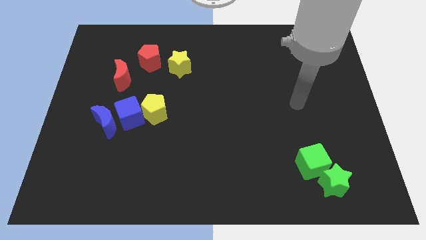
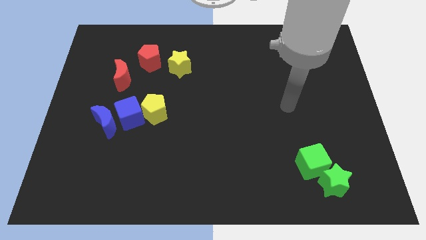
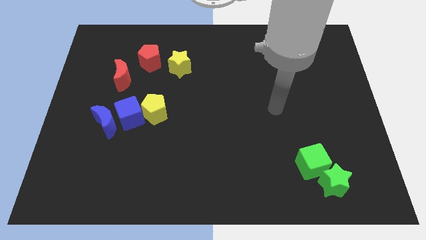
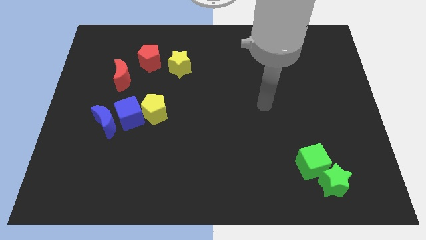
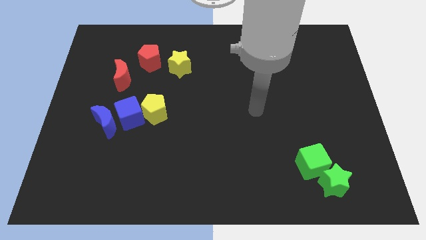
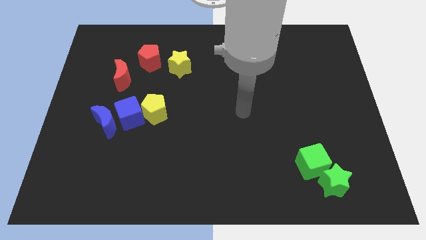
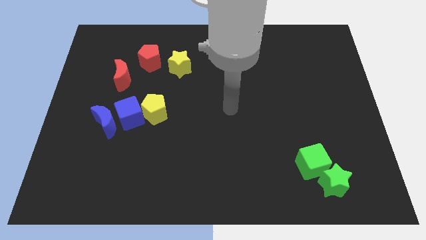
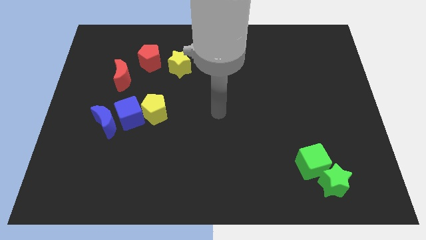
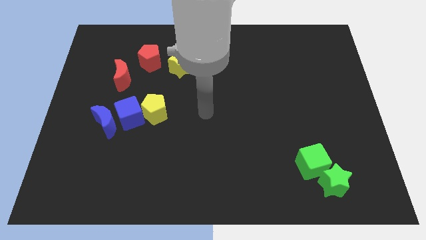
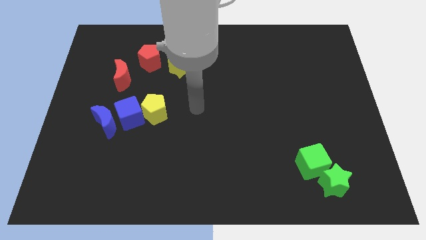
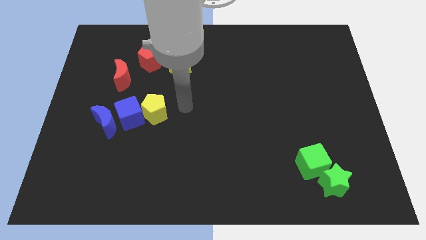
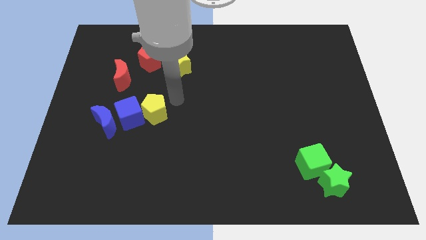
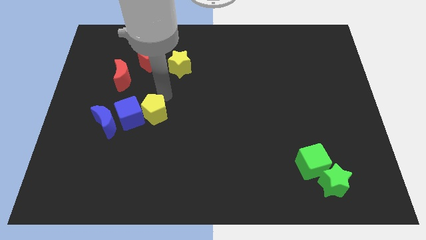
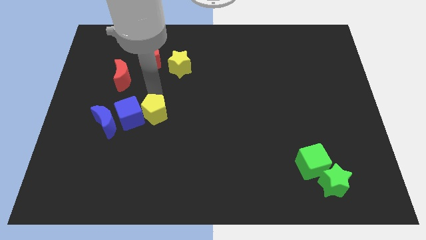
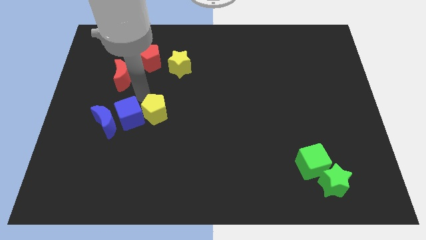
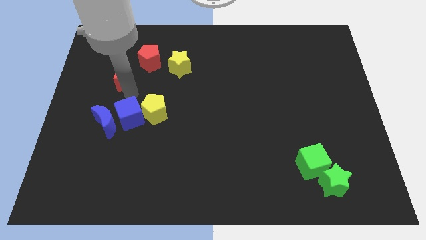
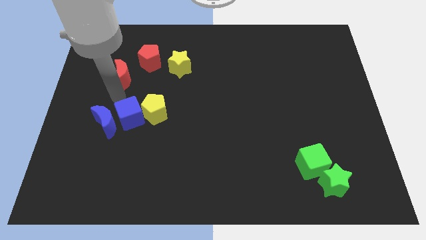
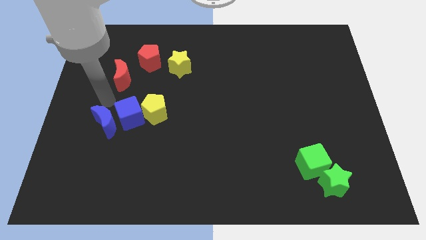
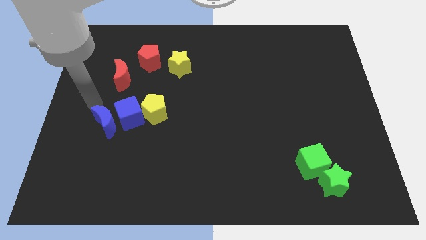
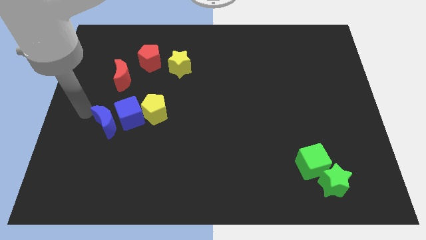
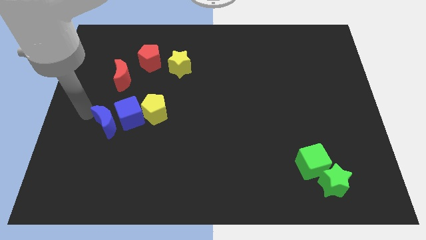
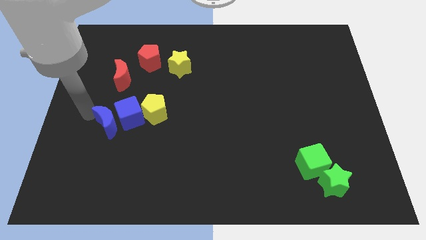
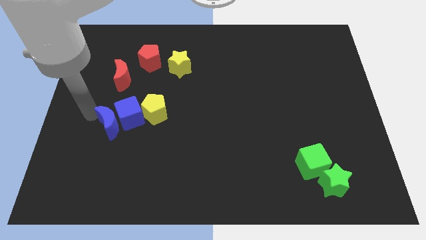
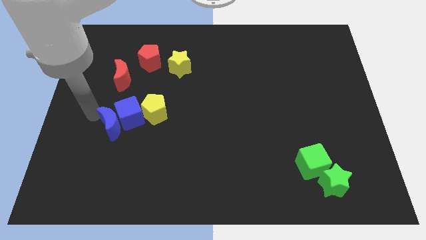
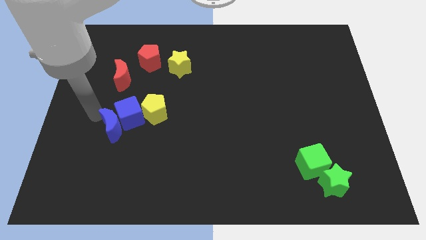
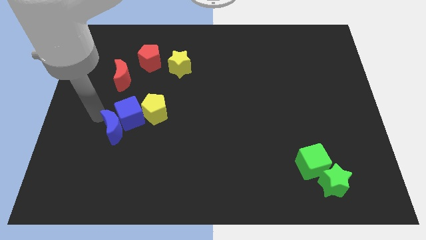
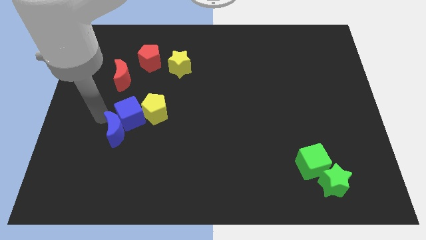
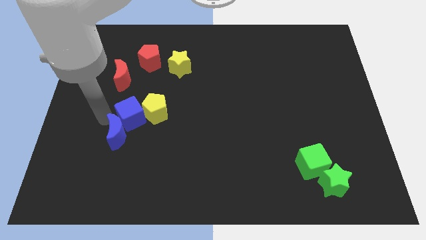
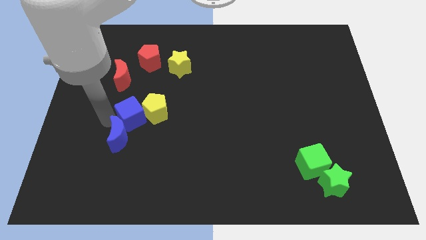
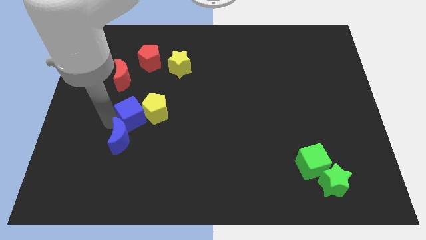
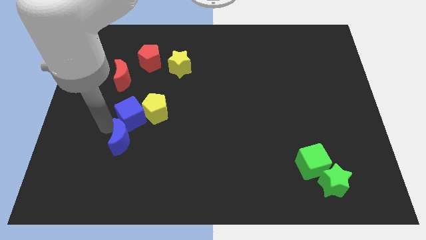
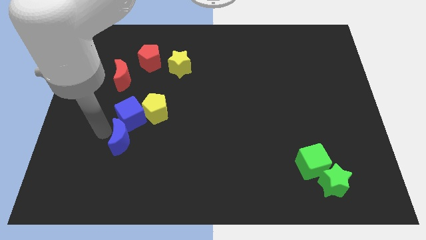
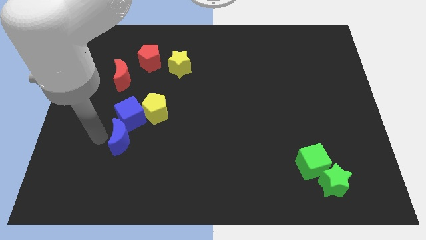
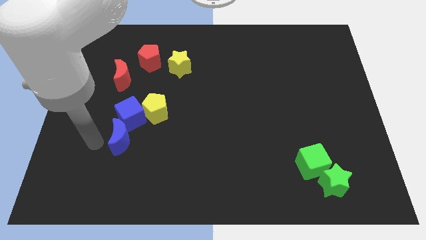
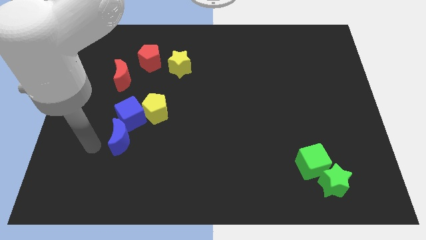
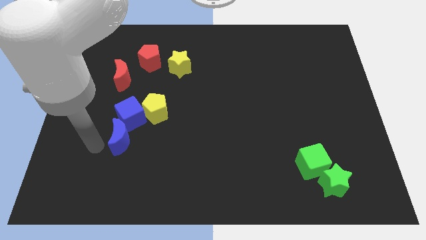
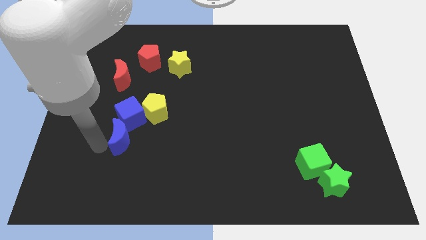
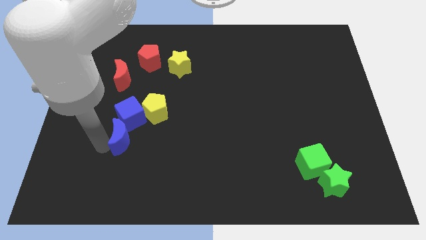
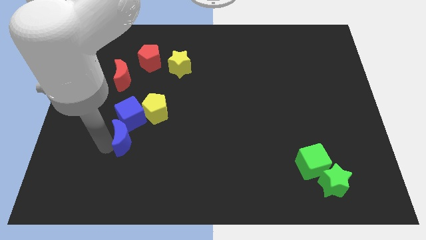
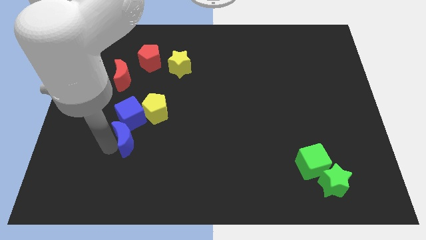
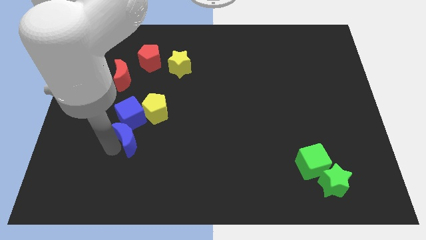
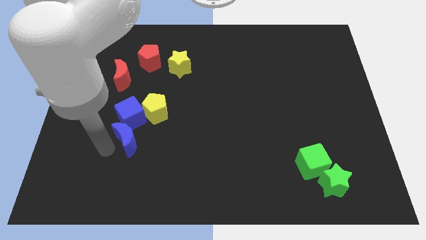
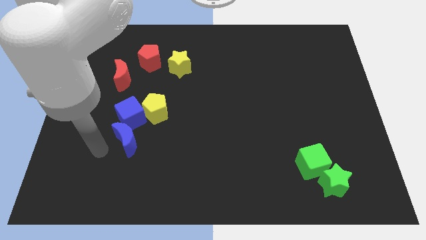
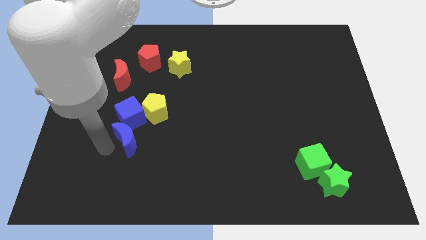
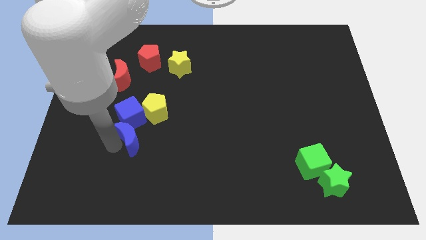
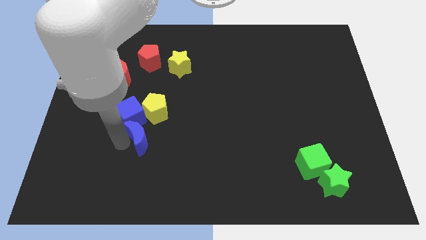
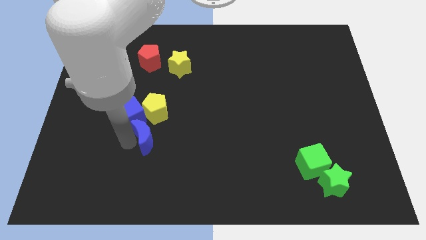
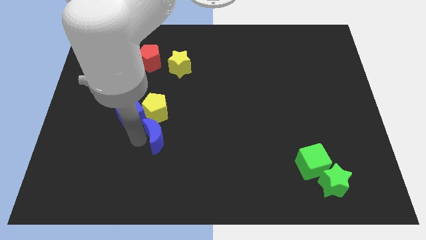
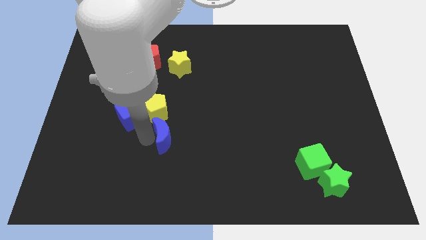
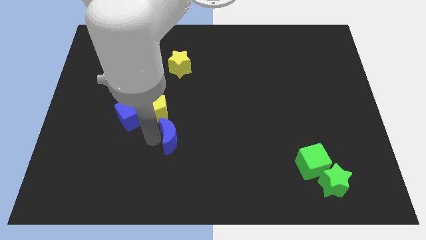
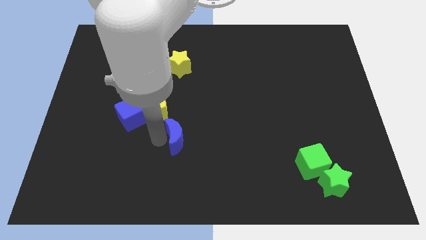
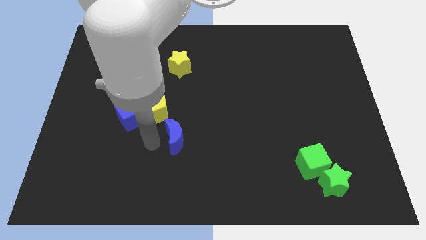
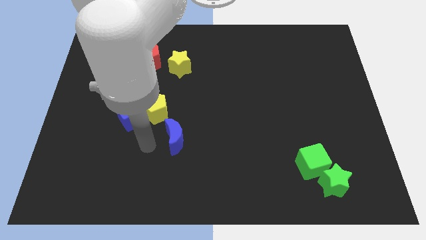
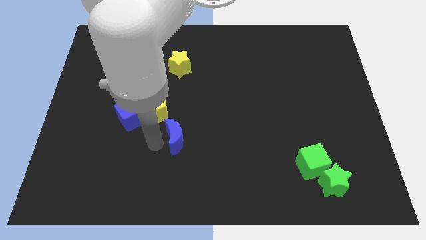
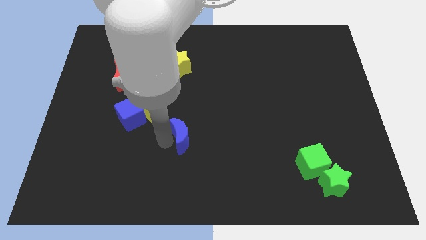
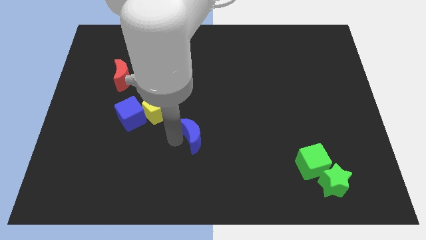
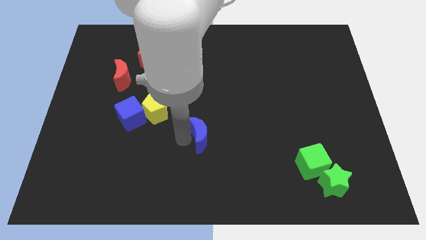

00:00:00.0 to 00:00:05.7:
move the blue moon right

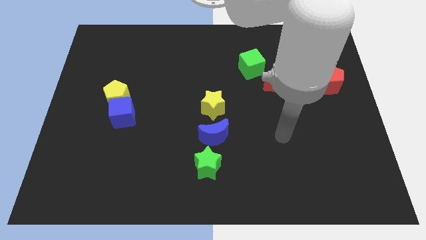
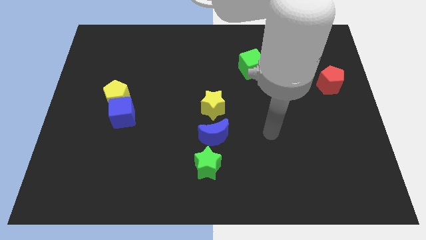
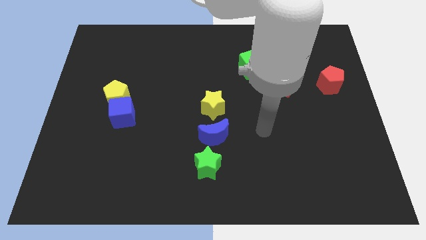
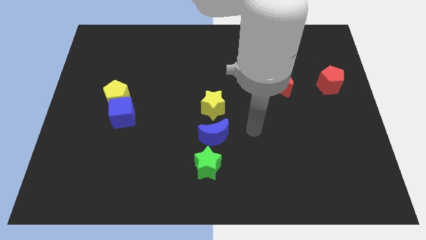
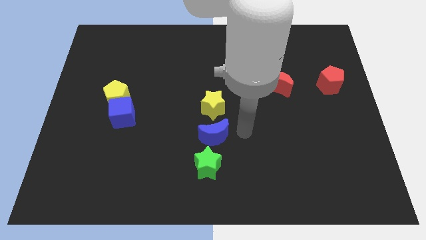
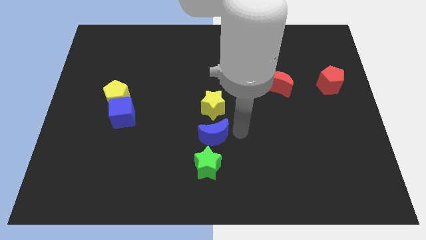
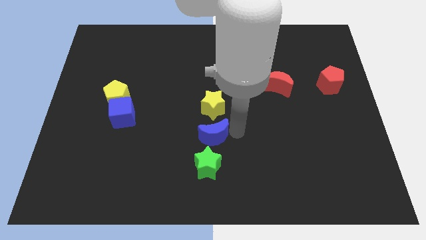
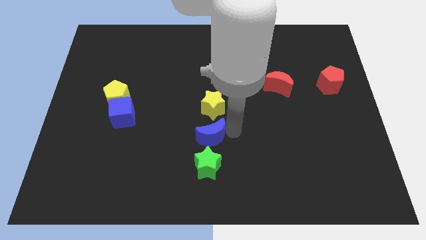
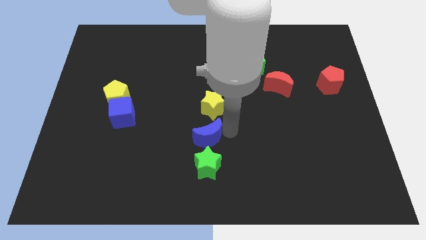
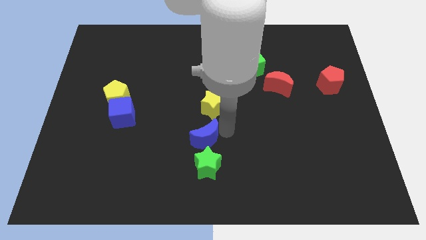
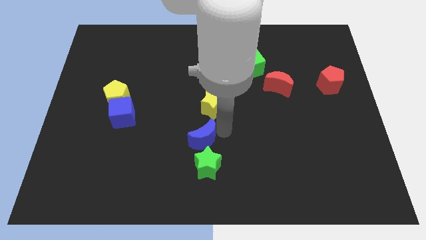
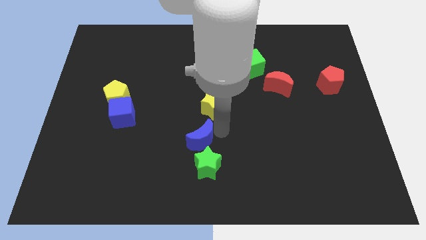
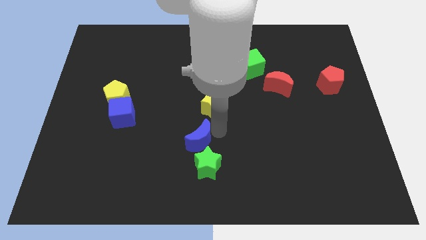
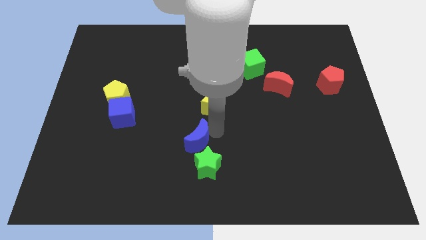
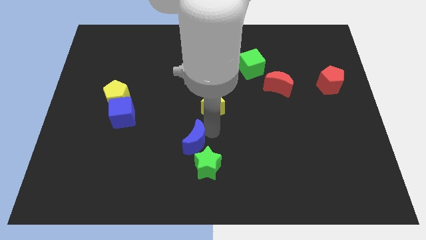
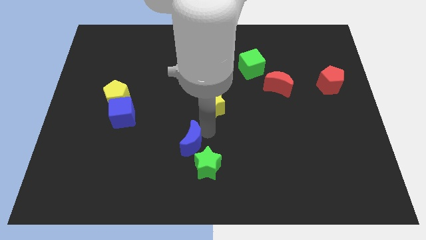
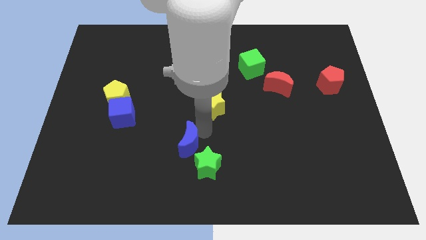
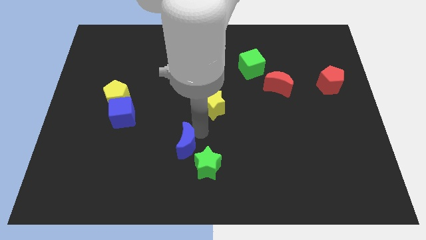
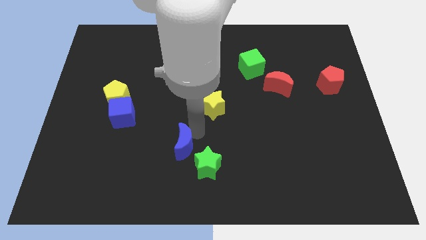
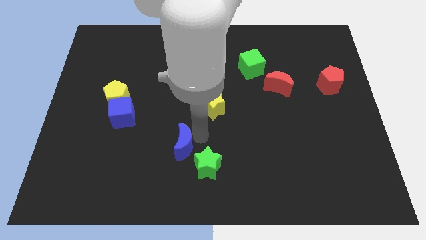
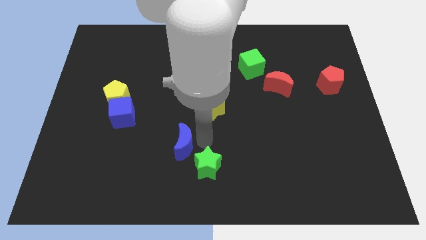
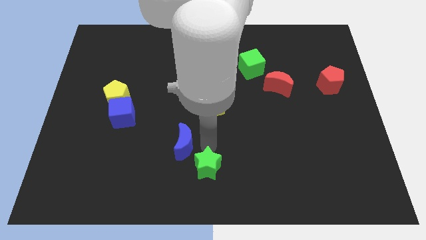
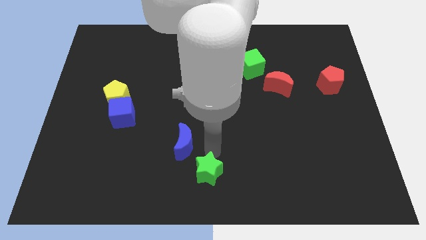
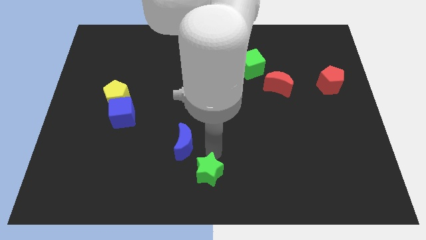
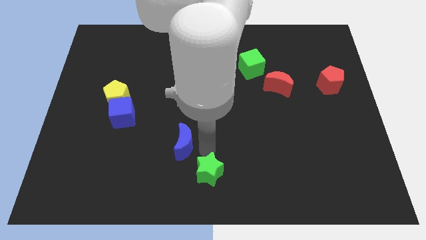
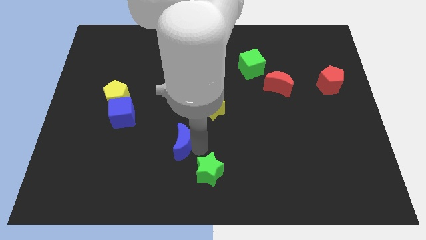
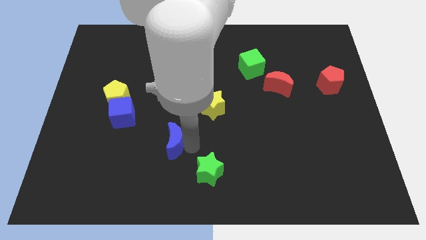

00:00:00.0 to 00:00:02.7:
push the blue moon left a little
